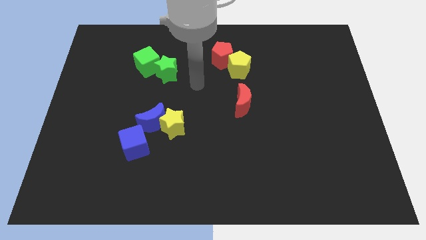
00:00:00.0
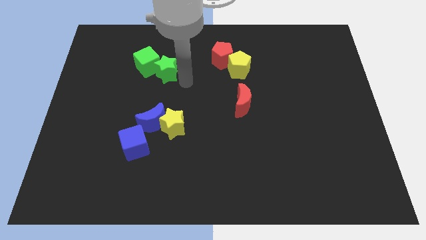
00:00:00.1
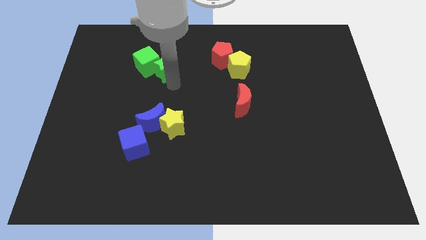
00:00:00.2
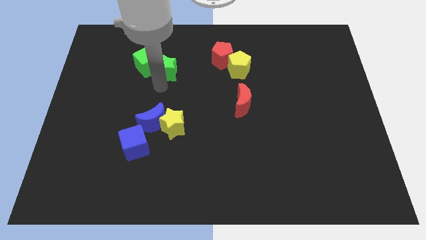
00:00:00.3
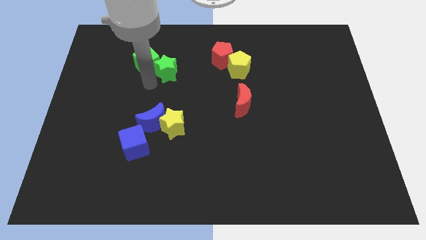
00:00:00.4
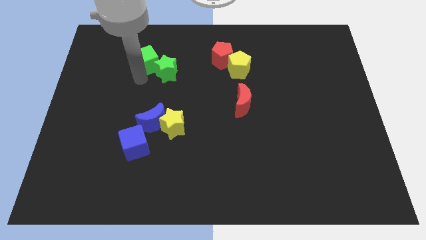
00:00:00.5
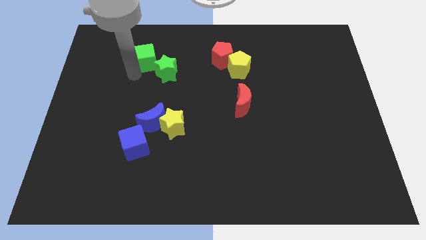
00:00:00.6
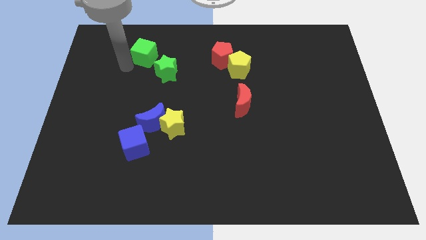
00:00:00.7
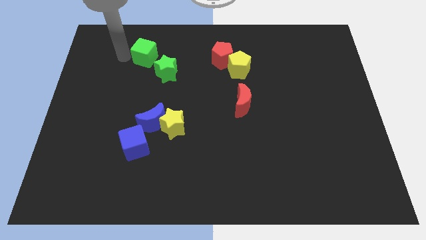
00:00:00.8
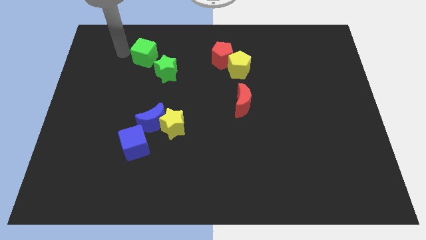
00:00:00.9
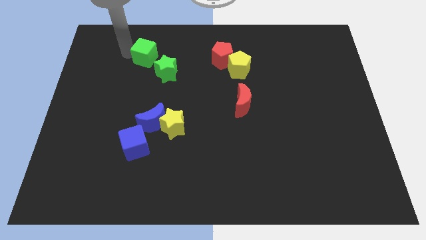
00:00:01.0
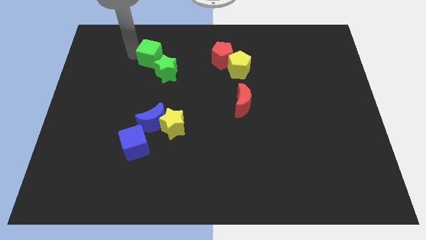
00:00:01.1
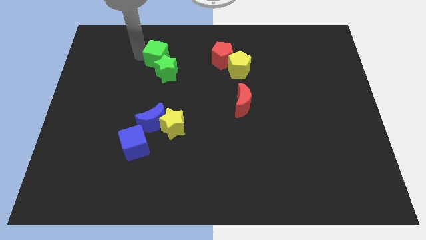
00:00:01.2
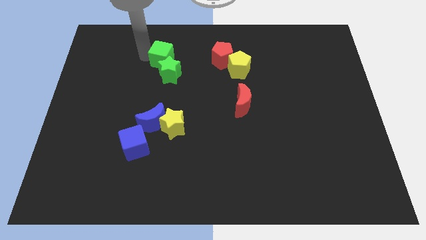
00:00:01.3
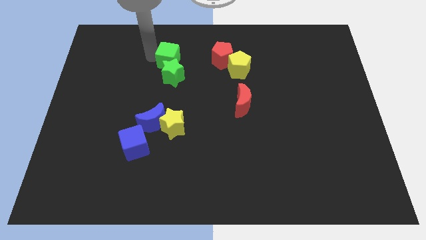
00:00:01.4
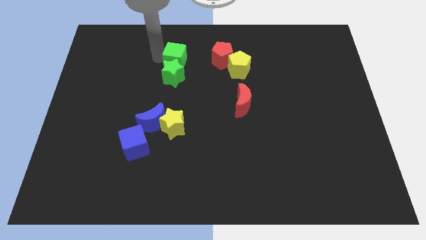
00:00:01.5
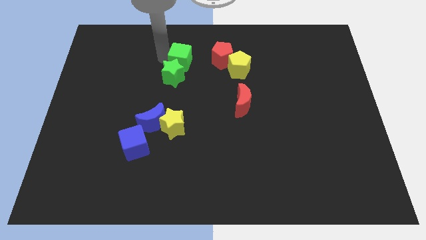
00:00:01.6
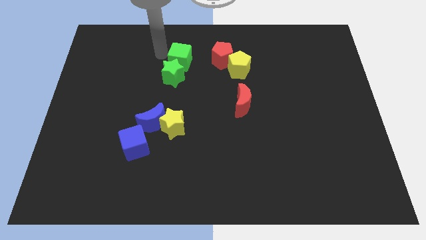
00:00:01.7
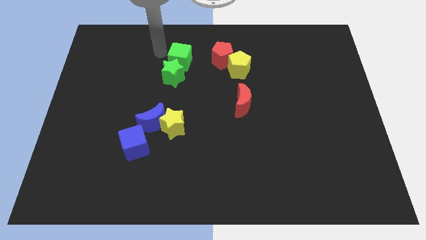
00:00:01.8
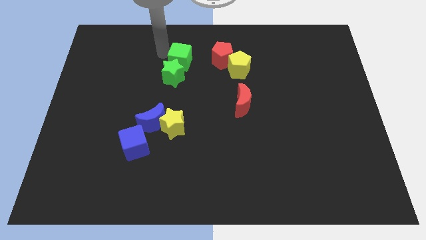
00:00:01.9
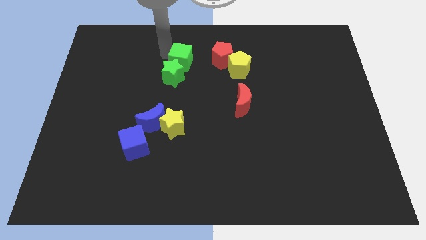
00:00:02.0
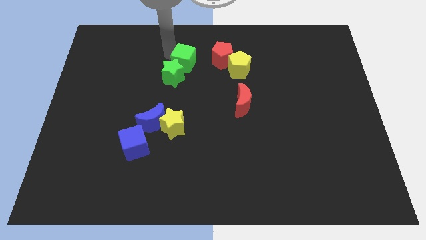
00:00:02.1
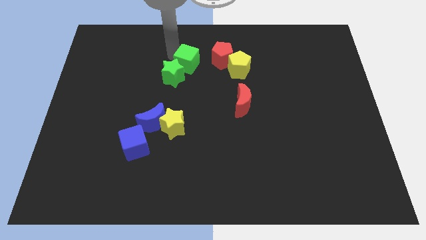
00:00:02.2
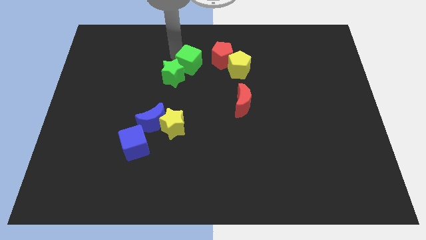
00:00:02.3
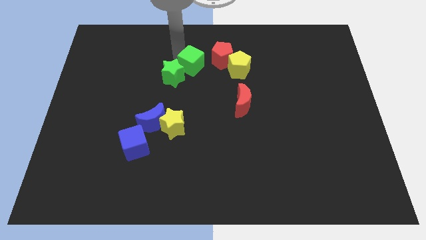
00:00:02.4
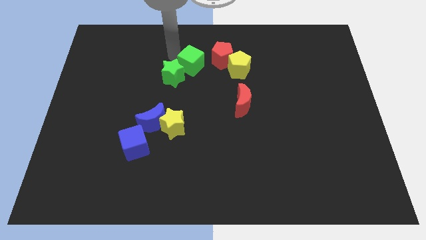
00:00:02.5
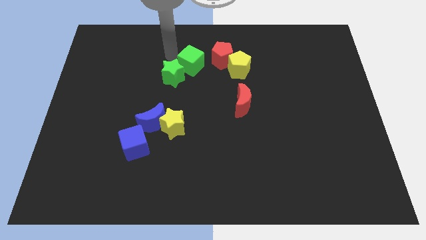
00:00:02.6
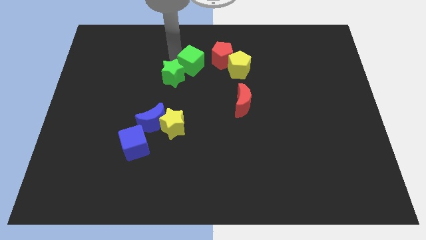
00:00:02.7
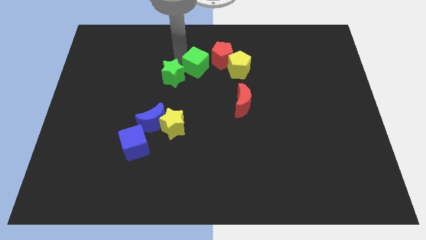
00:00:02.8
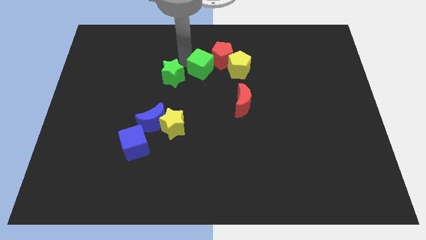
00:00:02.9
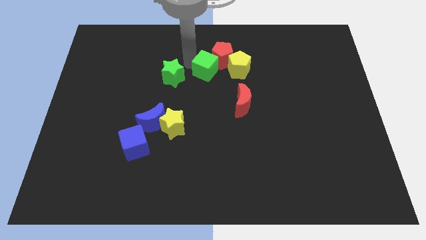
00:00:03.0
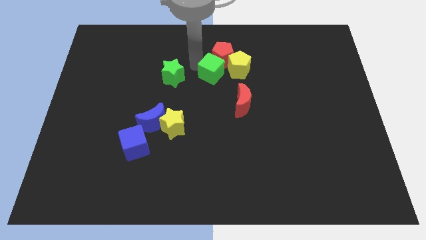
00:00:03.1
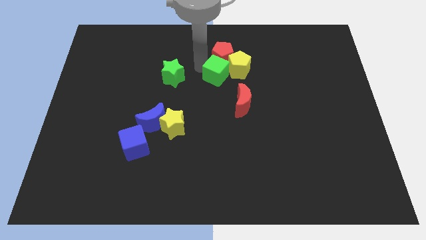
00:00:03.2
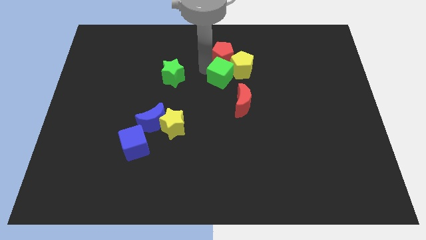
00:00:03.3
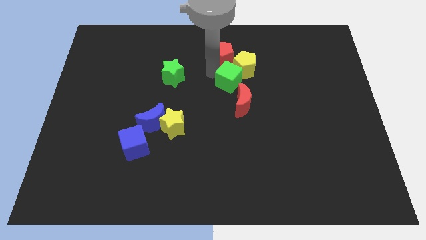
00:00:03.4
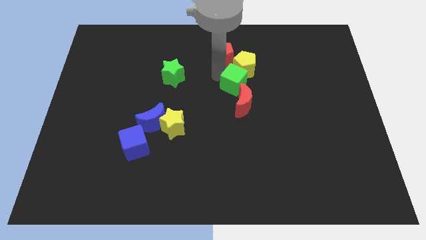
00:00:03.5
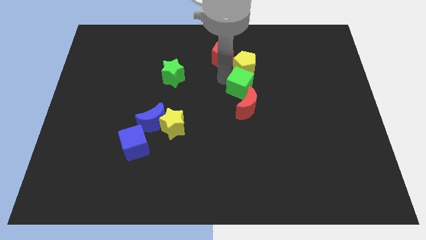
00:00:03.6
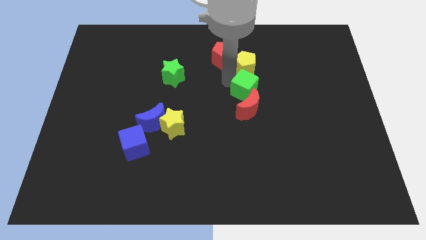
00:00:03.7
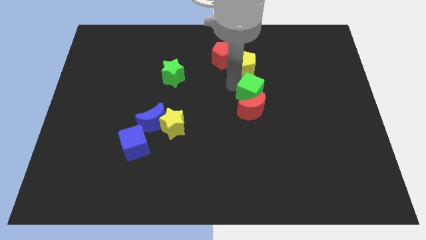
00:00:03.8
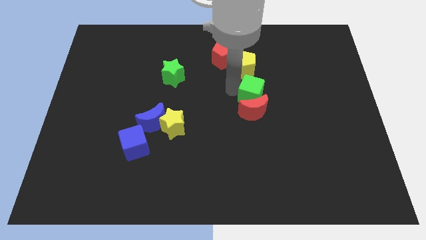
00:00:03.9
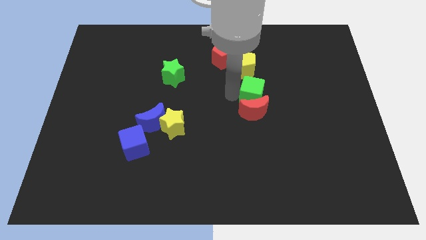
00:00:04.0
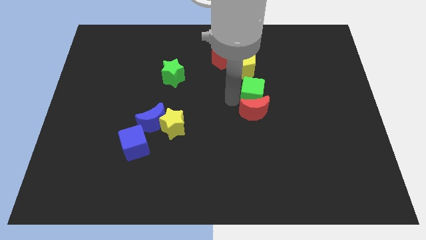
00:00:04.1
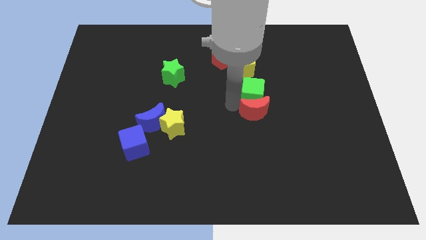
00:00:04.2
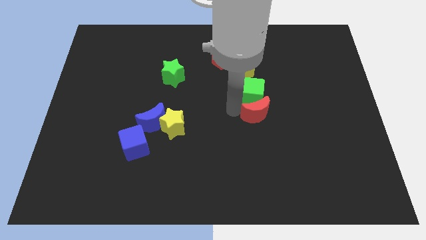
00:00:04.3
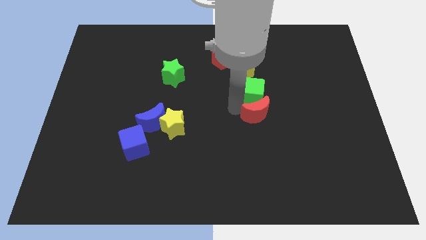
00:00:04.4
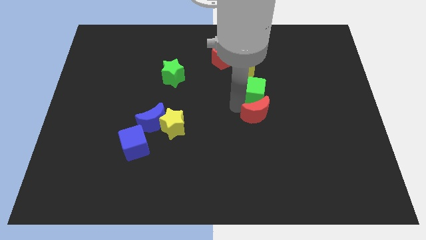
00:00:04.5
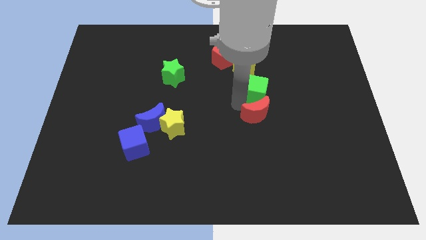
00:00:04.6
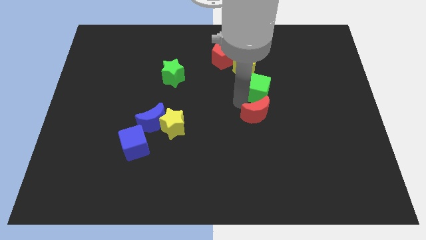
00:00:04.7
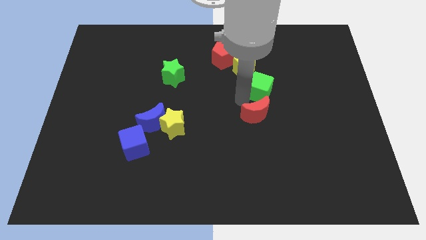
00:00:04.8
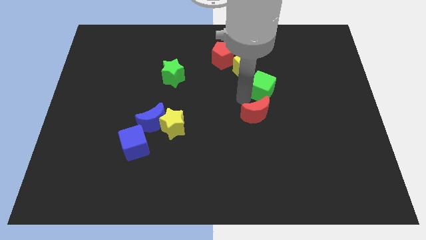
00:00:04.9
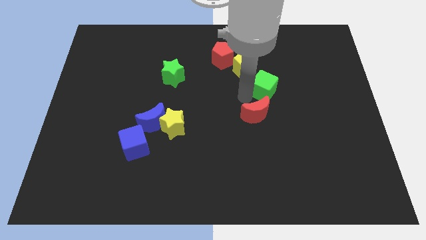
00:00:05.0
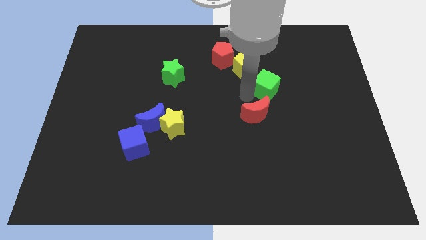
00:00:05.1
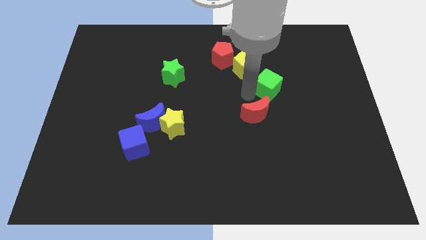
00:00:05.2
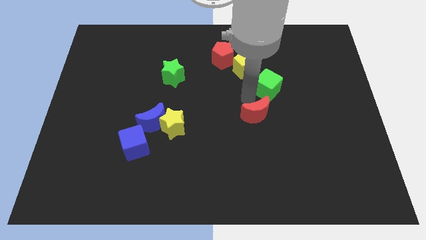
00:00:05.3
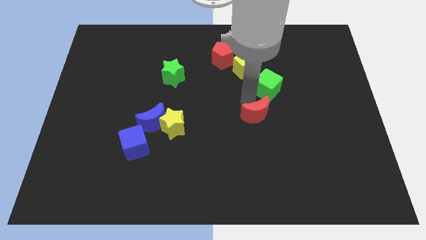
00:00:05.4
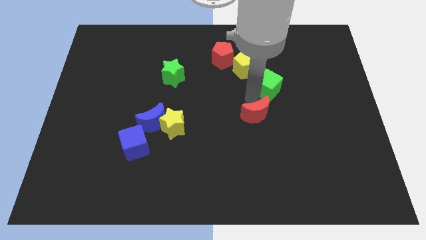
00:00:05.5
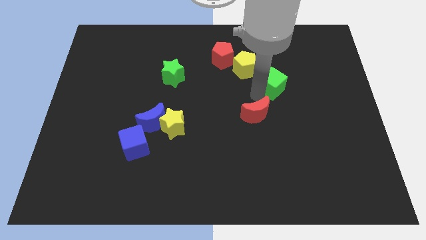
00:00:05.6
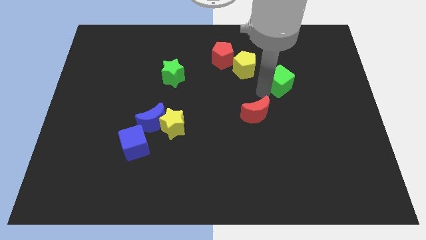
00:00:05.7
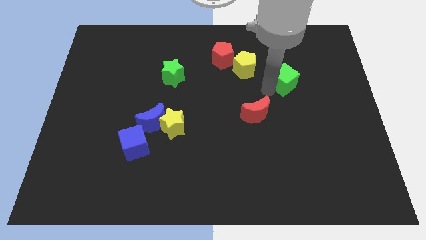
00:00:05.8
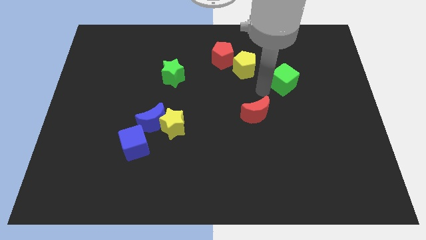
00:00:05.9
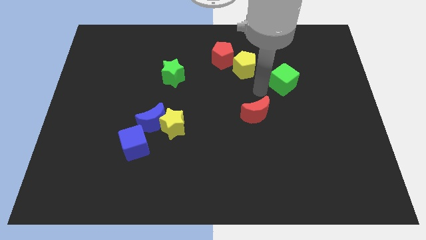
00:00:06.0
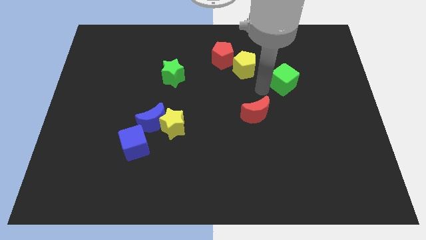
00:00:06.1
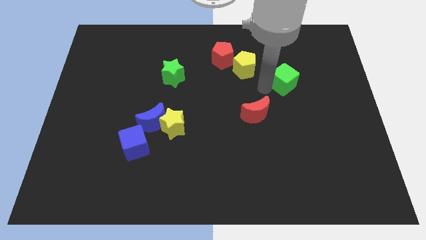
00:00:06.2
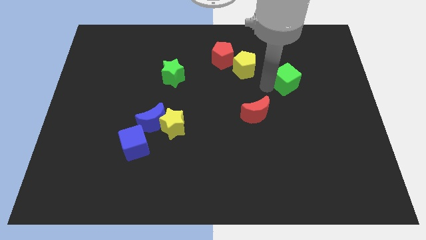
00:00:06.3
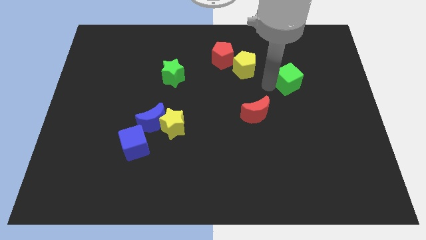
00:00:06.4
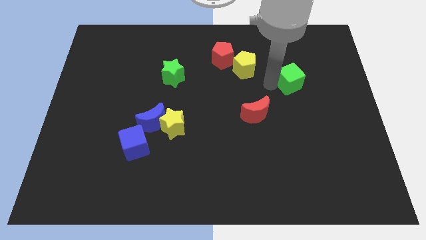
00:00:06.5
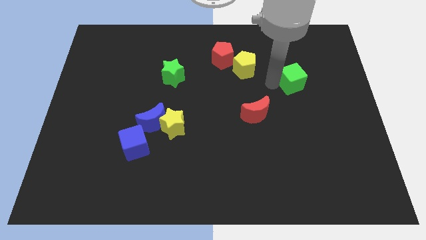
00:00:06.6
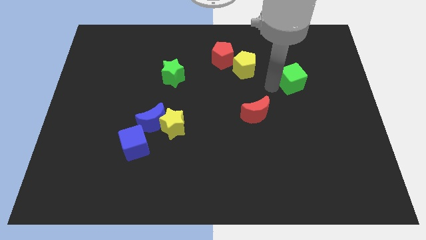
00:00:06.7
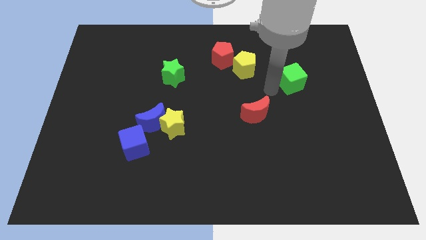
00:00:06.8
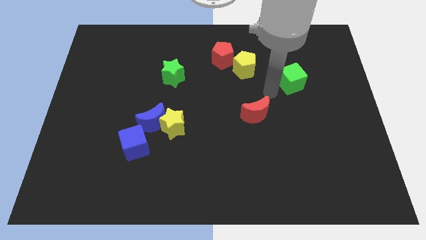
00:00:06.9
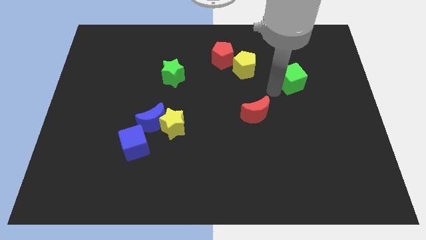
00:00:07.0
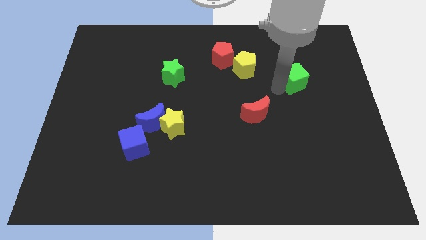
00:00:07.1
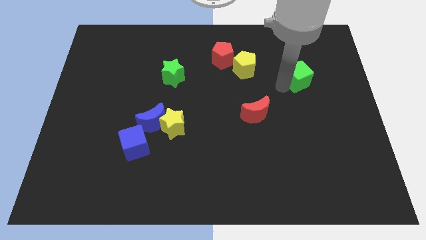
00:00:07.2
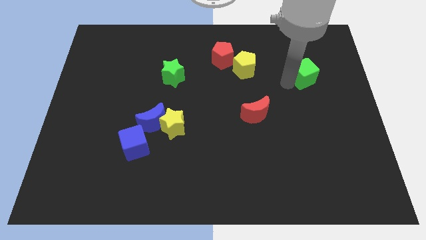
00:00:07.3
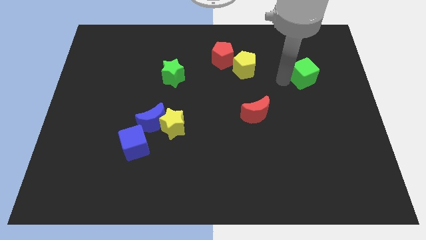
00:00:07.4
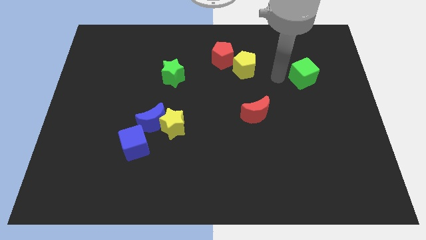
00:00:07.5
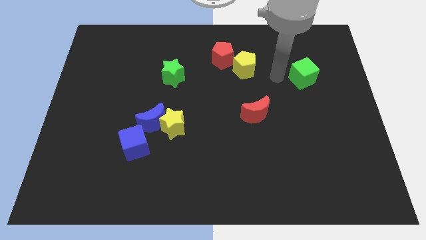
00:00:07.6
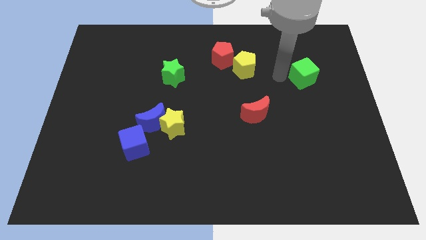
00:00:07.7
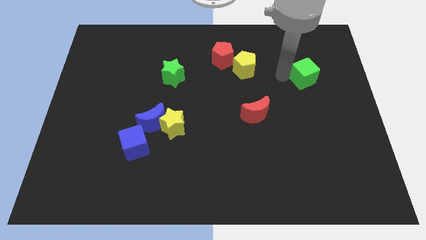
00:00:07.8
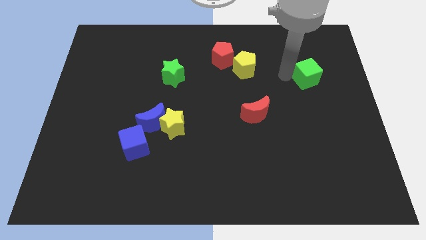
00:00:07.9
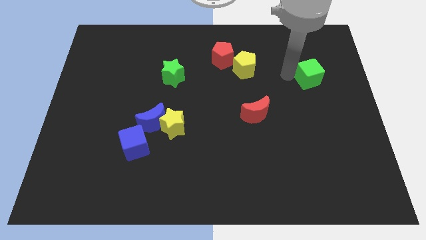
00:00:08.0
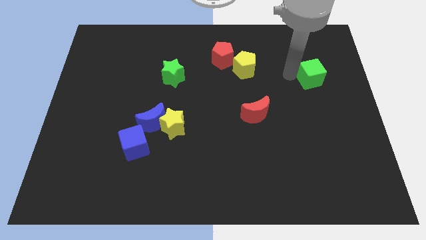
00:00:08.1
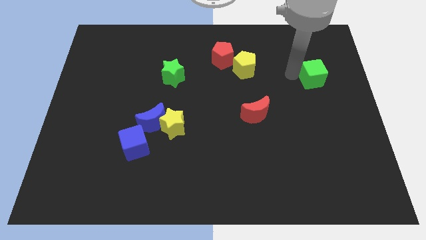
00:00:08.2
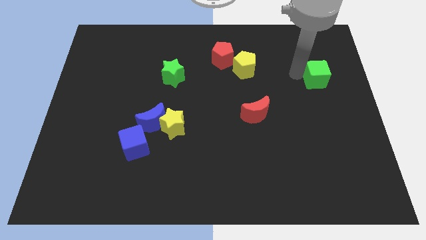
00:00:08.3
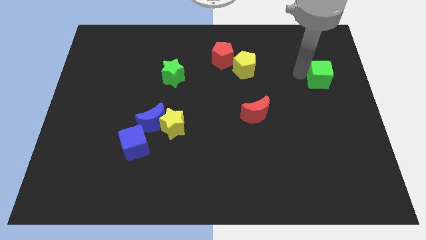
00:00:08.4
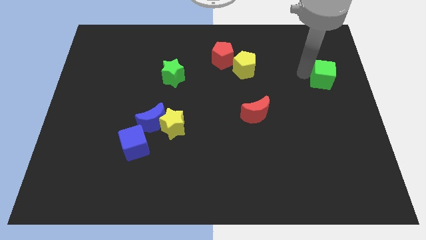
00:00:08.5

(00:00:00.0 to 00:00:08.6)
push the green cube to the center right
